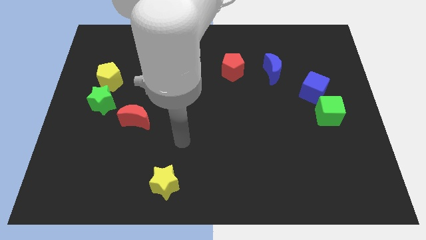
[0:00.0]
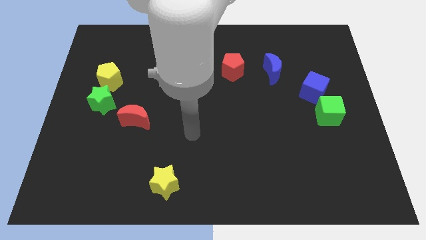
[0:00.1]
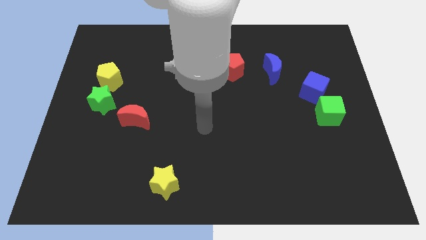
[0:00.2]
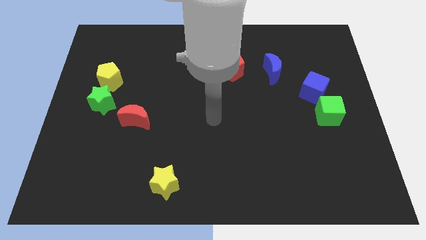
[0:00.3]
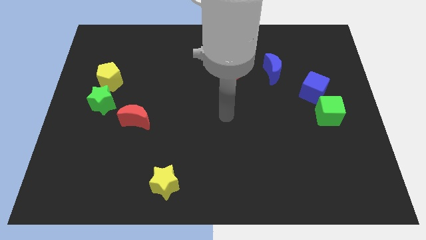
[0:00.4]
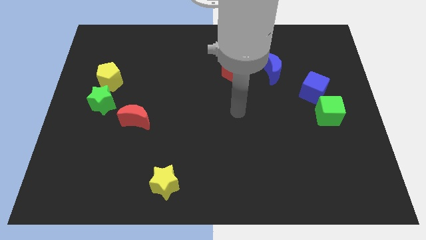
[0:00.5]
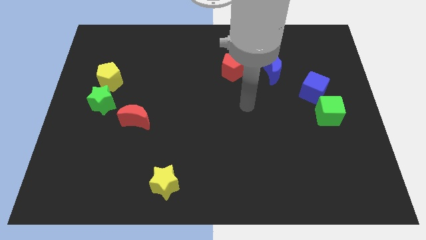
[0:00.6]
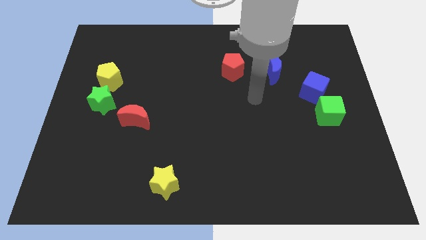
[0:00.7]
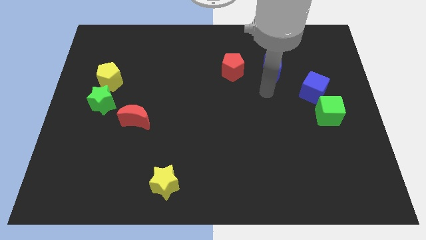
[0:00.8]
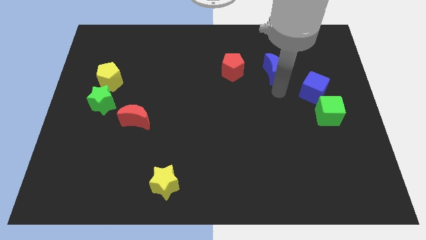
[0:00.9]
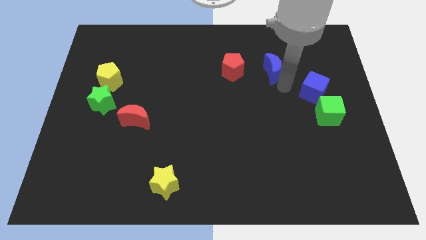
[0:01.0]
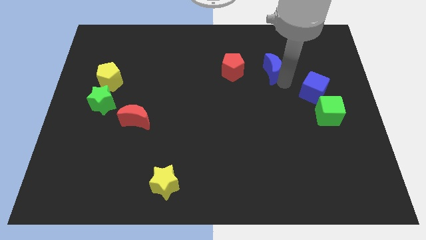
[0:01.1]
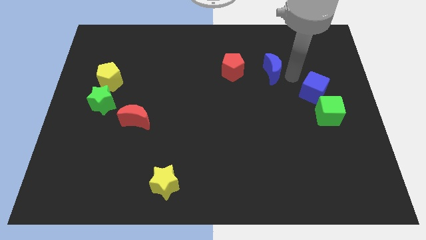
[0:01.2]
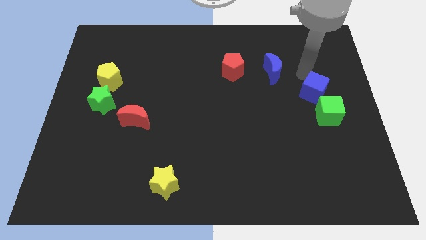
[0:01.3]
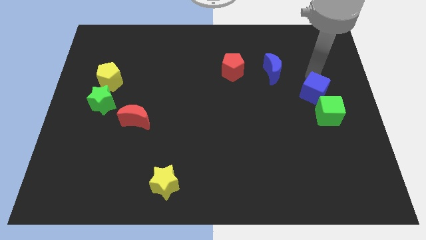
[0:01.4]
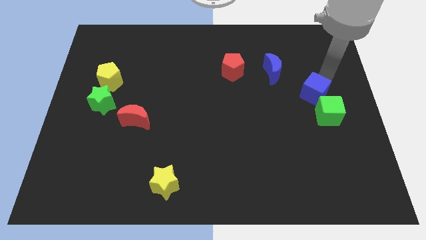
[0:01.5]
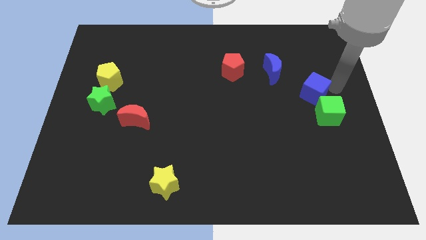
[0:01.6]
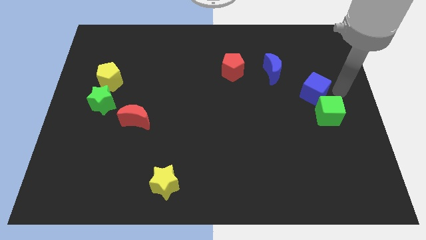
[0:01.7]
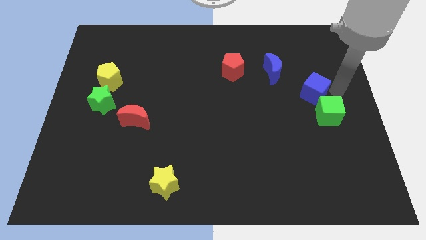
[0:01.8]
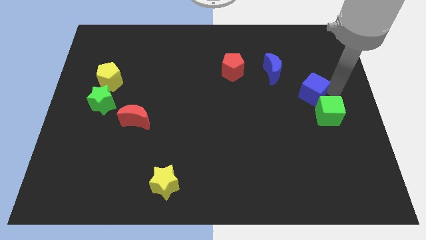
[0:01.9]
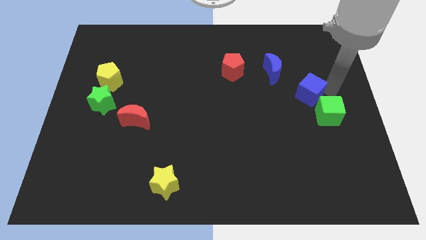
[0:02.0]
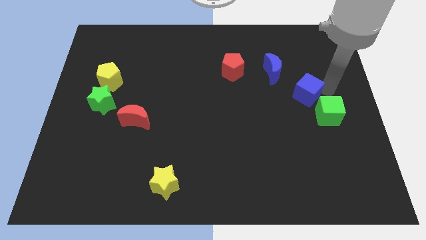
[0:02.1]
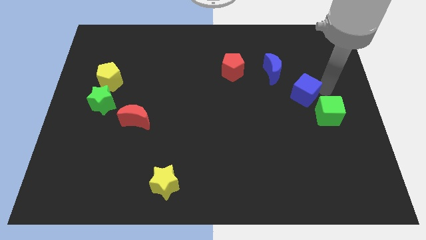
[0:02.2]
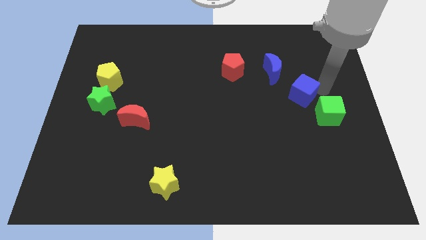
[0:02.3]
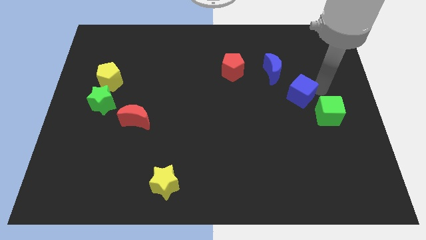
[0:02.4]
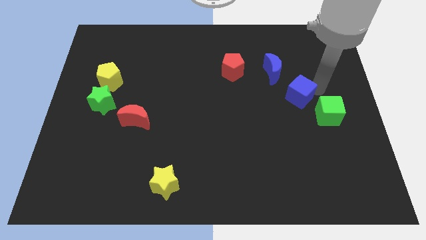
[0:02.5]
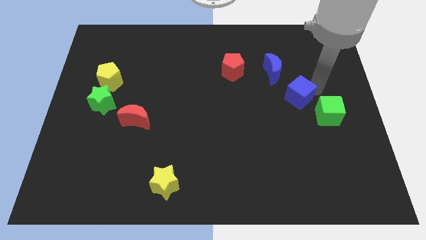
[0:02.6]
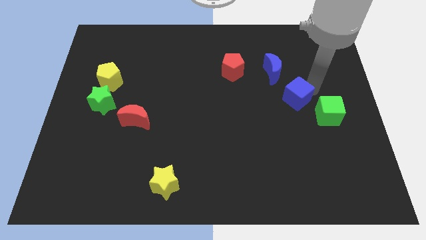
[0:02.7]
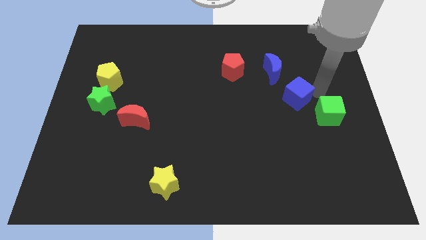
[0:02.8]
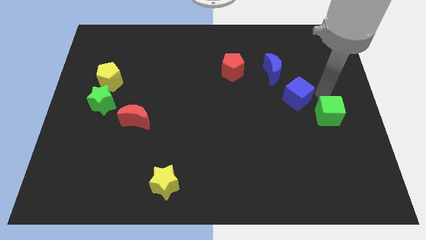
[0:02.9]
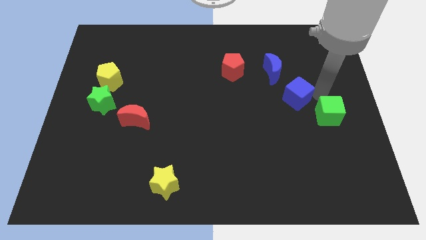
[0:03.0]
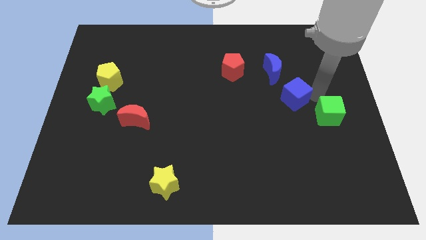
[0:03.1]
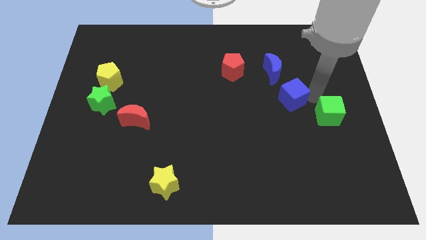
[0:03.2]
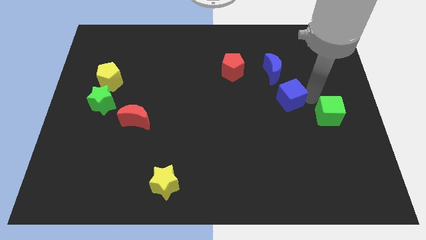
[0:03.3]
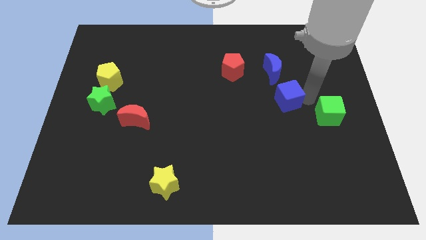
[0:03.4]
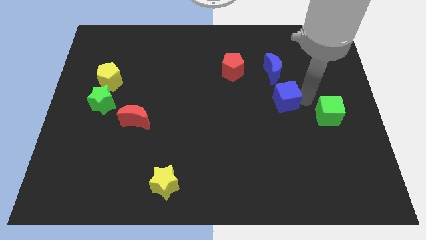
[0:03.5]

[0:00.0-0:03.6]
slide the blue cube a little left

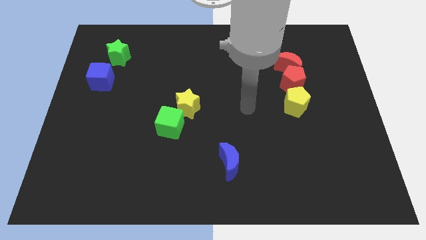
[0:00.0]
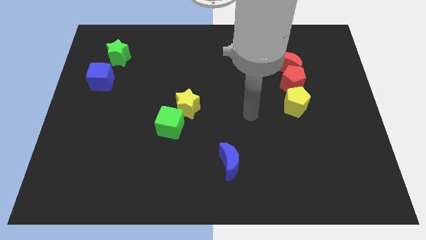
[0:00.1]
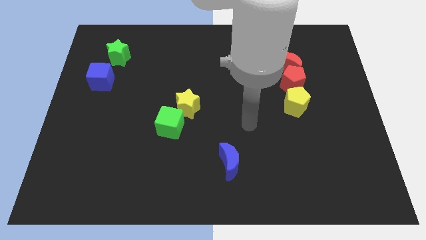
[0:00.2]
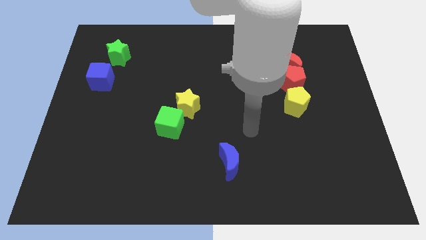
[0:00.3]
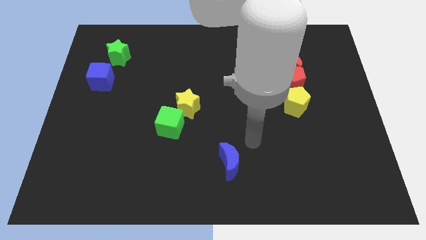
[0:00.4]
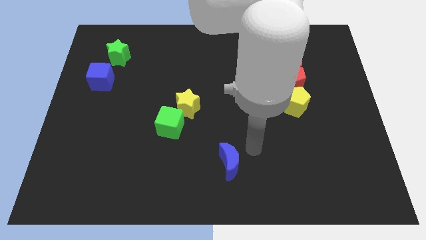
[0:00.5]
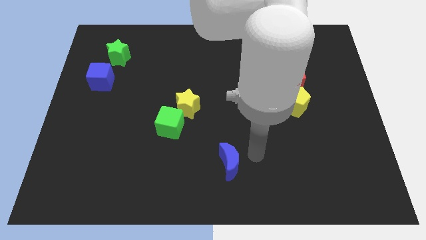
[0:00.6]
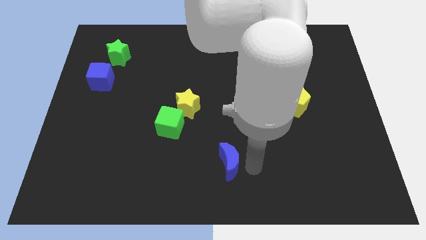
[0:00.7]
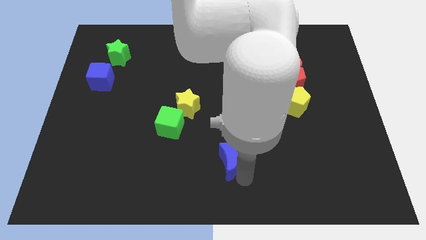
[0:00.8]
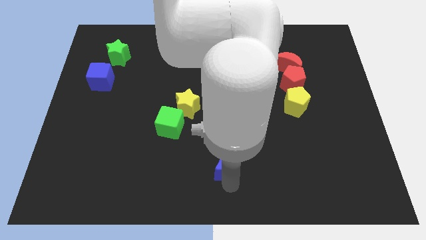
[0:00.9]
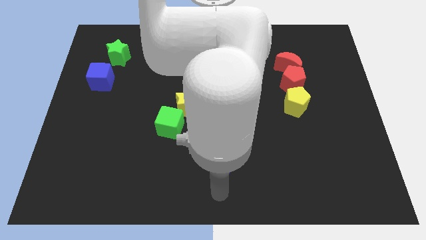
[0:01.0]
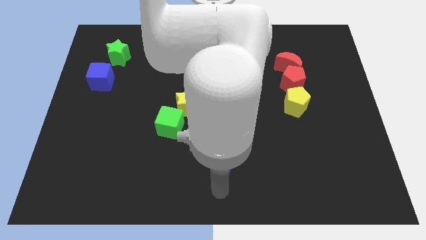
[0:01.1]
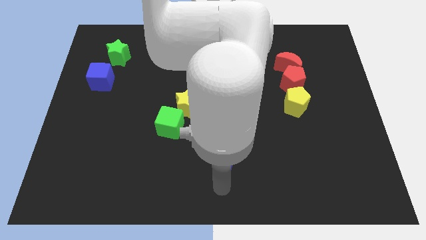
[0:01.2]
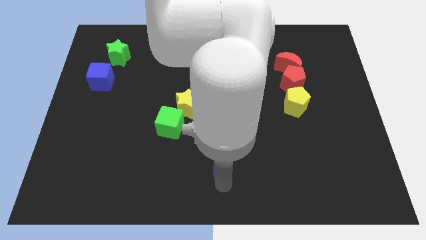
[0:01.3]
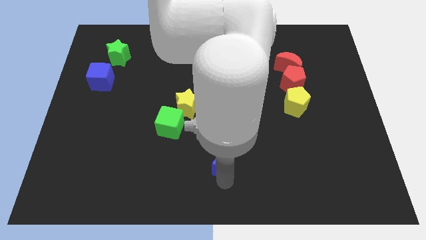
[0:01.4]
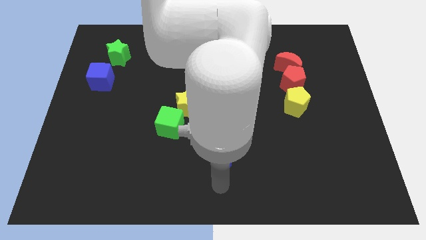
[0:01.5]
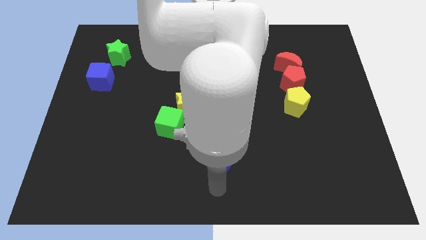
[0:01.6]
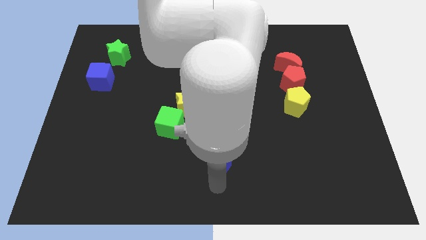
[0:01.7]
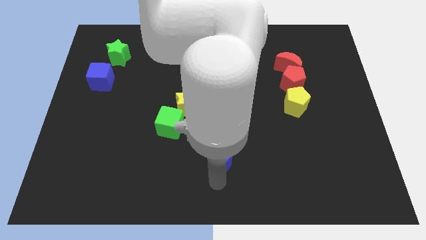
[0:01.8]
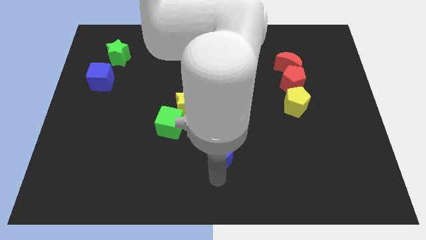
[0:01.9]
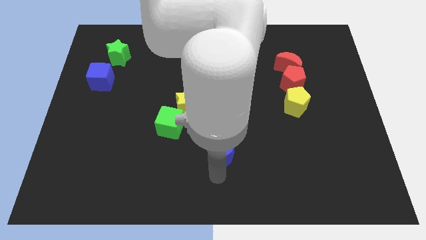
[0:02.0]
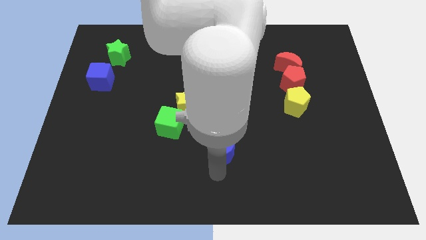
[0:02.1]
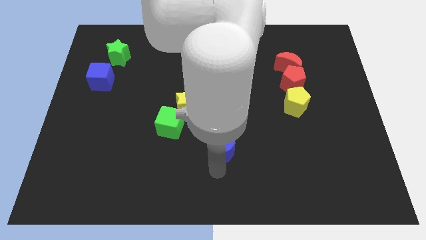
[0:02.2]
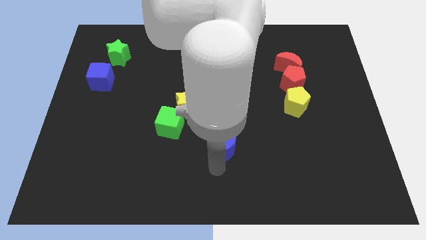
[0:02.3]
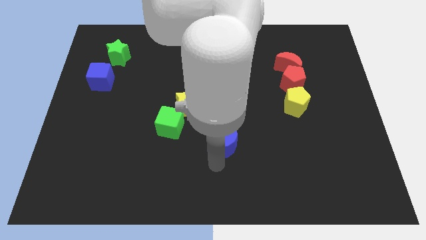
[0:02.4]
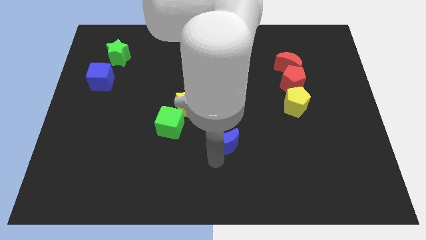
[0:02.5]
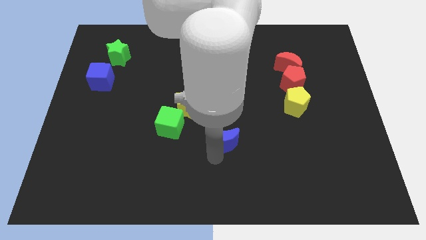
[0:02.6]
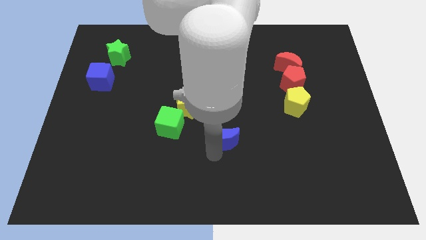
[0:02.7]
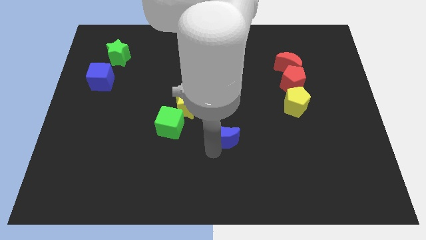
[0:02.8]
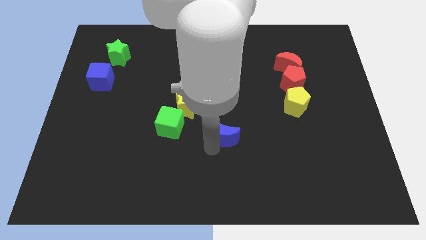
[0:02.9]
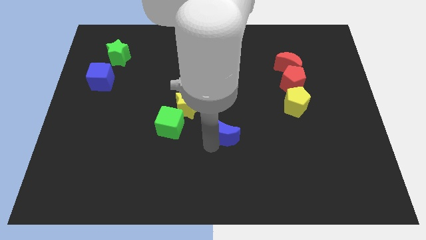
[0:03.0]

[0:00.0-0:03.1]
slightly move the blue moon upwards

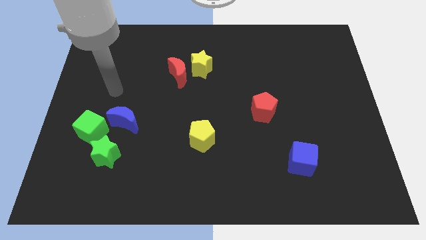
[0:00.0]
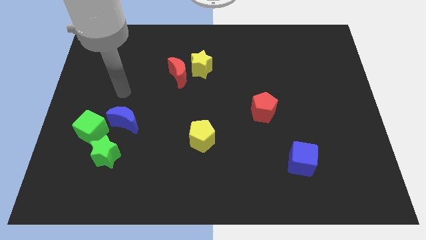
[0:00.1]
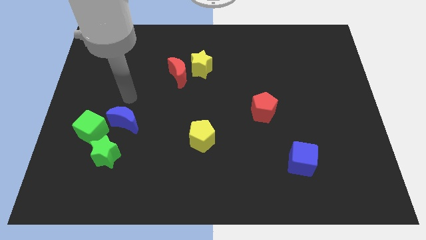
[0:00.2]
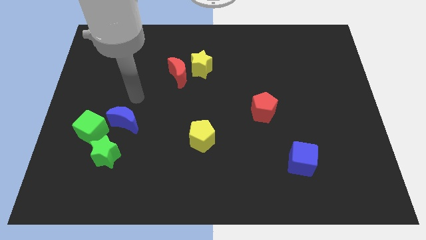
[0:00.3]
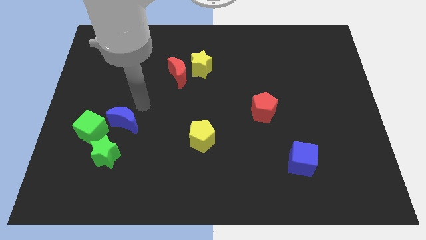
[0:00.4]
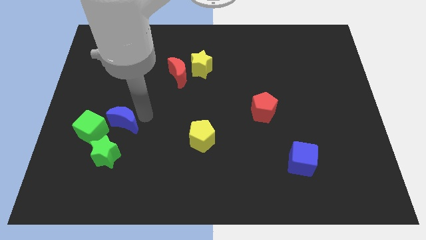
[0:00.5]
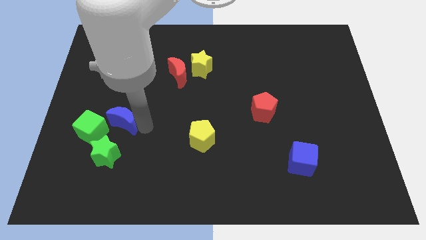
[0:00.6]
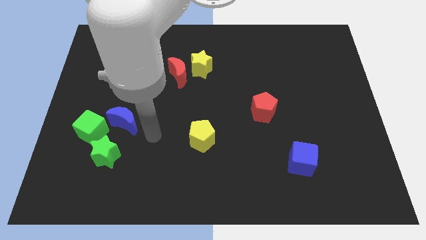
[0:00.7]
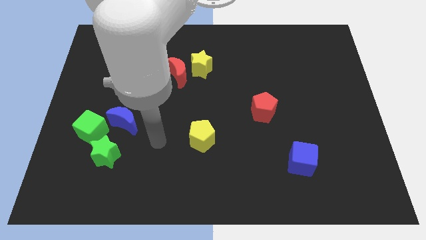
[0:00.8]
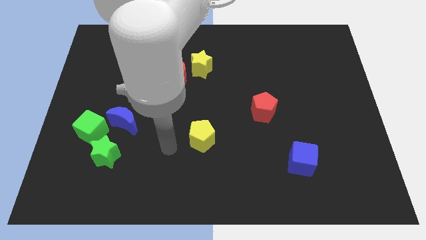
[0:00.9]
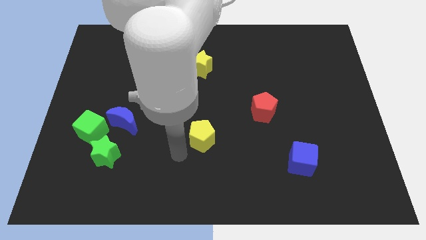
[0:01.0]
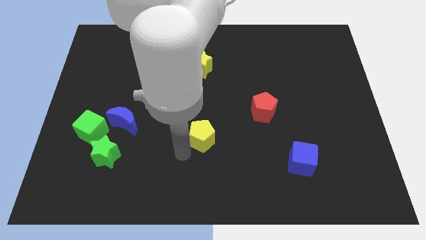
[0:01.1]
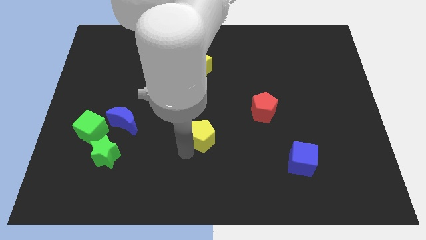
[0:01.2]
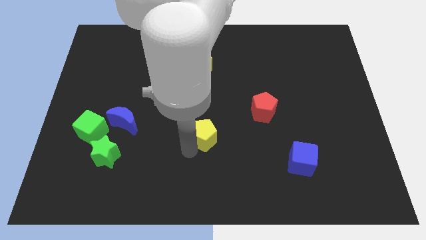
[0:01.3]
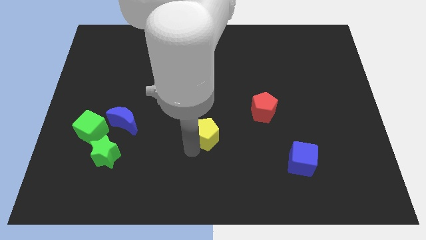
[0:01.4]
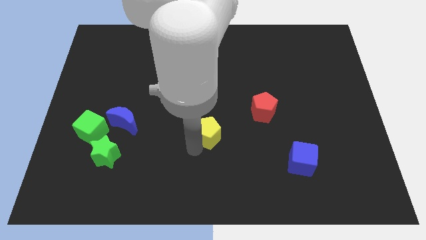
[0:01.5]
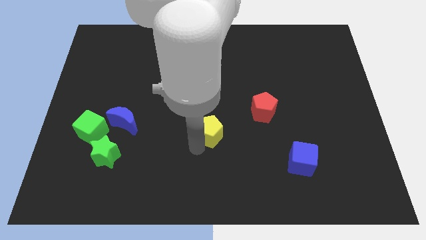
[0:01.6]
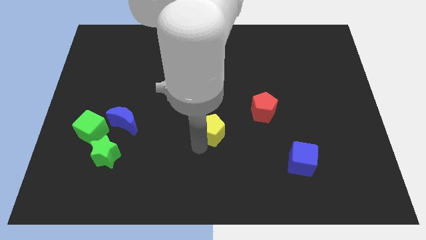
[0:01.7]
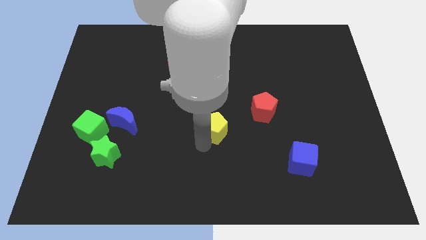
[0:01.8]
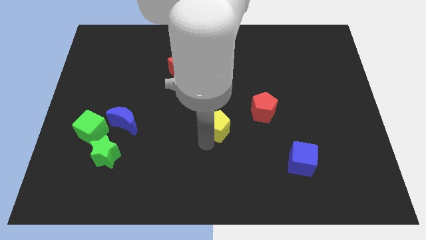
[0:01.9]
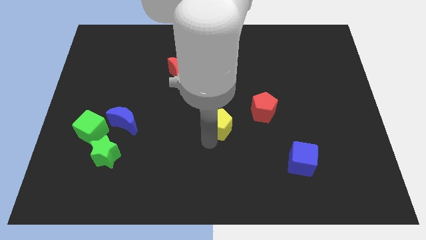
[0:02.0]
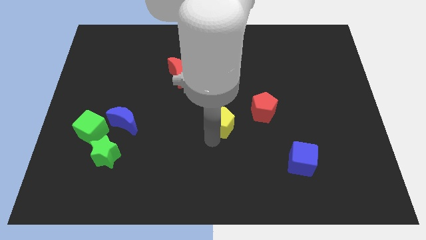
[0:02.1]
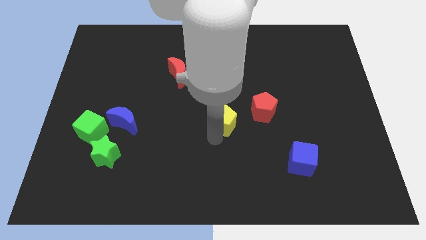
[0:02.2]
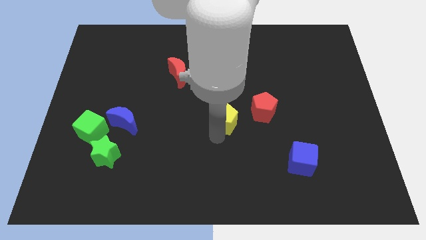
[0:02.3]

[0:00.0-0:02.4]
move the yellow pentagon upwards and right a bit
